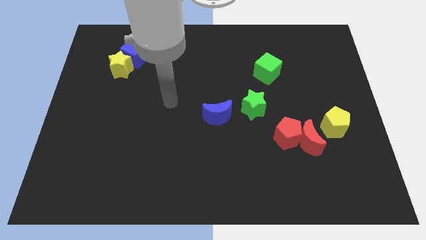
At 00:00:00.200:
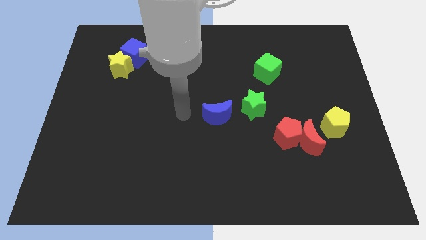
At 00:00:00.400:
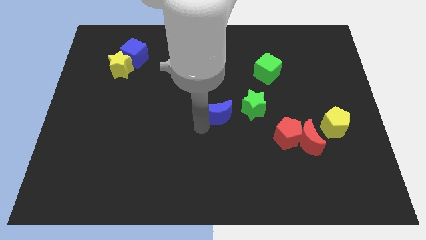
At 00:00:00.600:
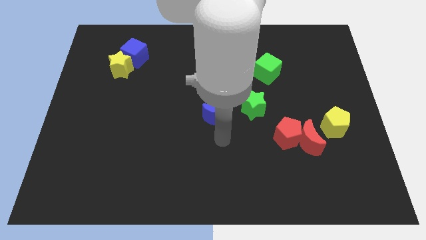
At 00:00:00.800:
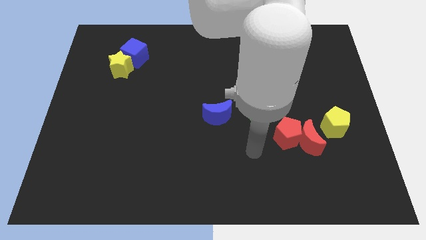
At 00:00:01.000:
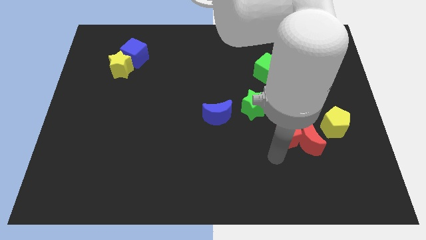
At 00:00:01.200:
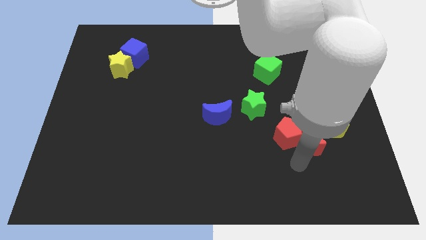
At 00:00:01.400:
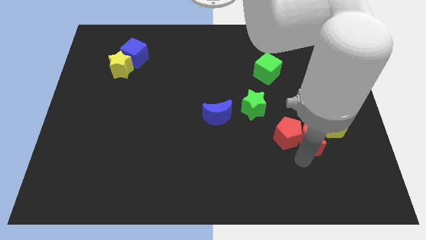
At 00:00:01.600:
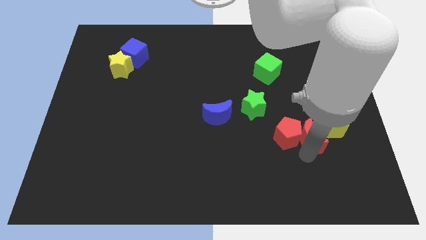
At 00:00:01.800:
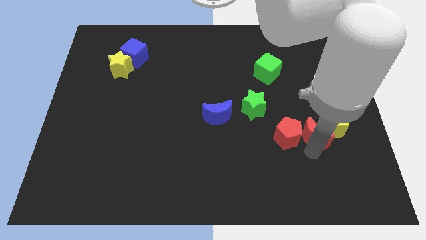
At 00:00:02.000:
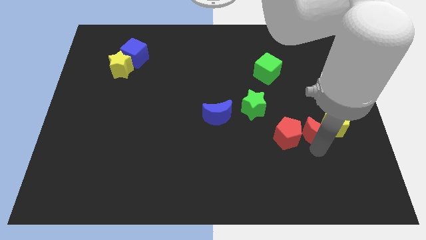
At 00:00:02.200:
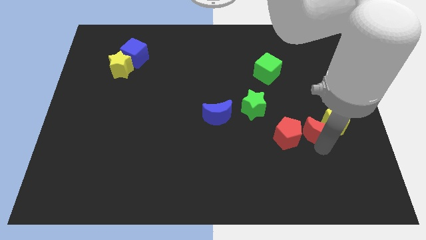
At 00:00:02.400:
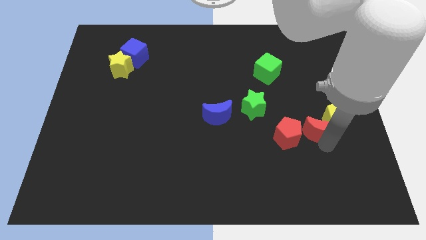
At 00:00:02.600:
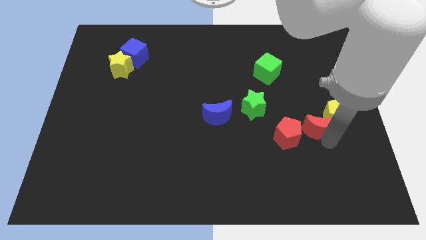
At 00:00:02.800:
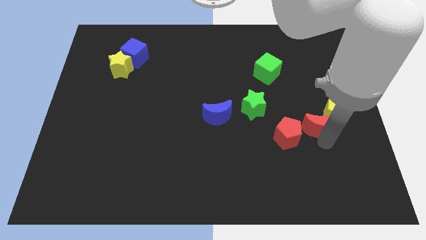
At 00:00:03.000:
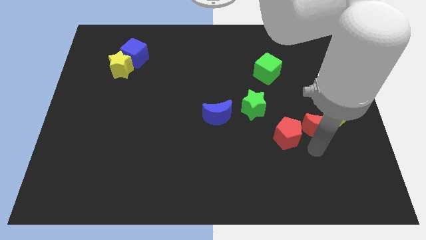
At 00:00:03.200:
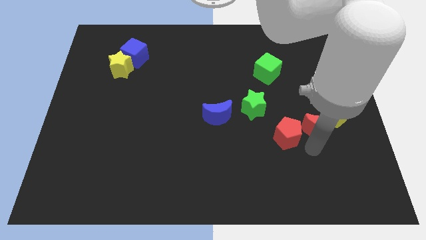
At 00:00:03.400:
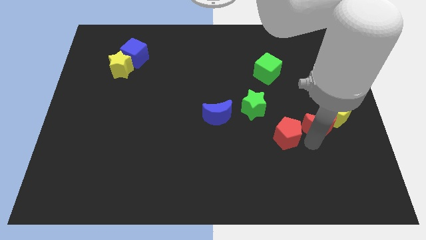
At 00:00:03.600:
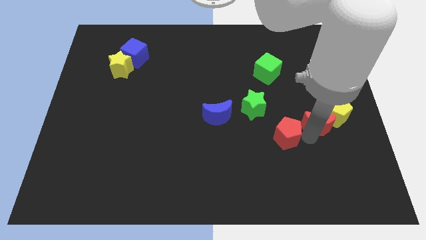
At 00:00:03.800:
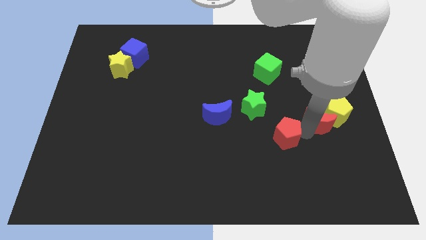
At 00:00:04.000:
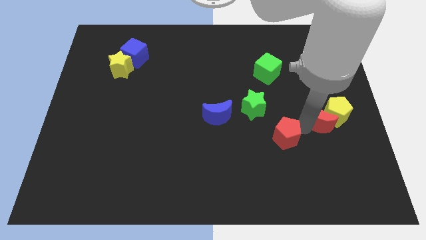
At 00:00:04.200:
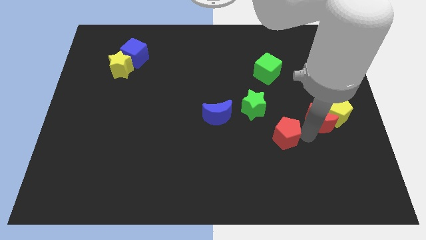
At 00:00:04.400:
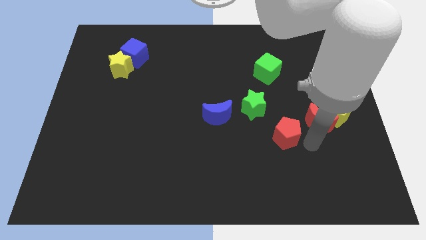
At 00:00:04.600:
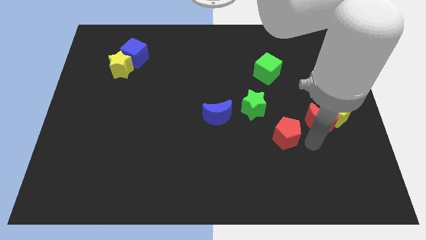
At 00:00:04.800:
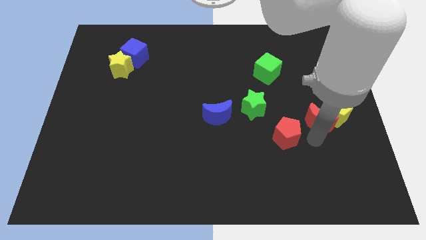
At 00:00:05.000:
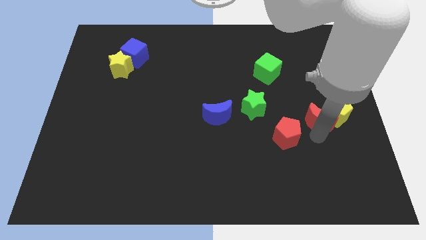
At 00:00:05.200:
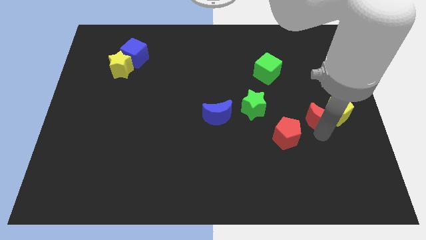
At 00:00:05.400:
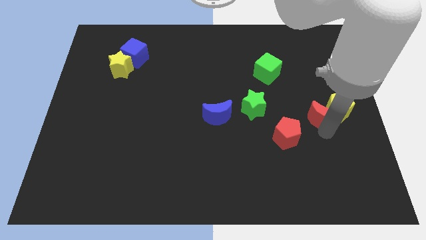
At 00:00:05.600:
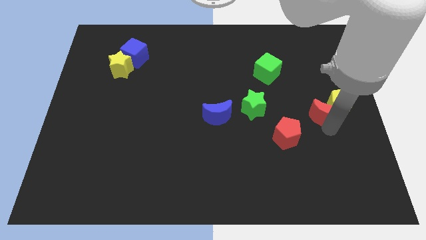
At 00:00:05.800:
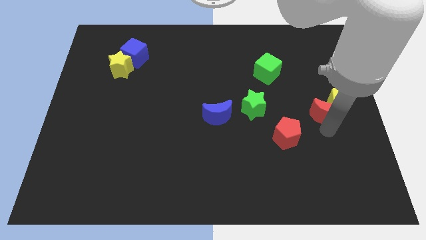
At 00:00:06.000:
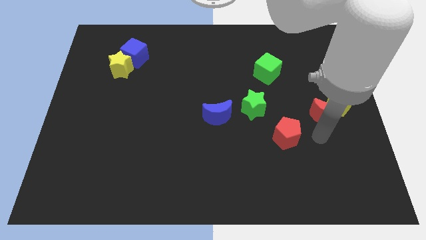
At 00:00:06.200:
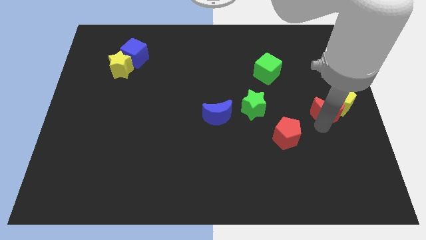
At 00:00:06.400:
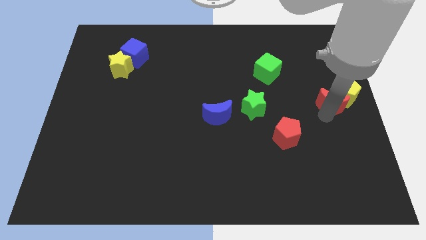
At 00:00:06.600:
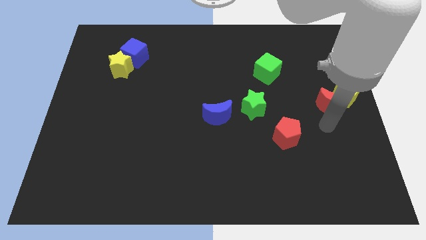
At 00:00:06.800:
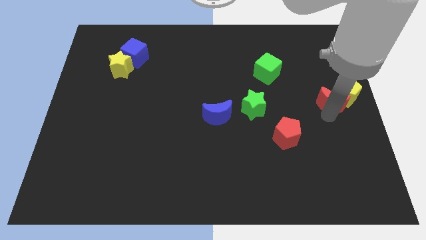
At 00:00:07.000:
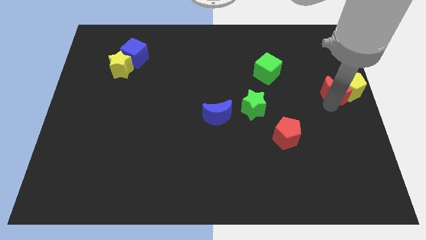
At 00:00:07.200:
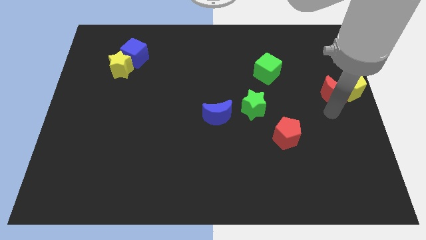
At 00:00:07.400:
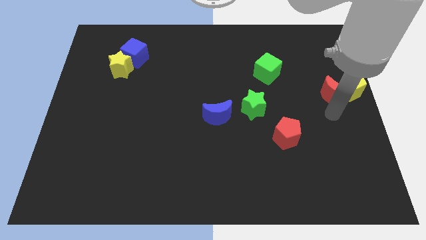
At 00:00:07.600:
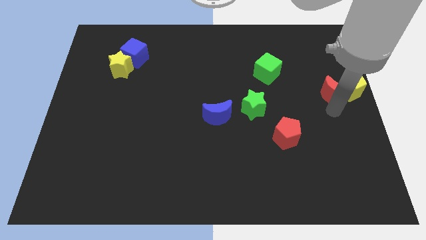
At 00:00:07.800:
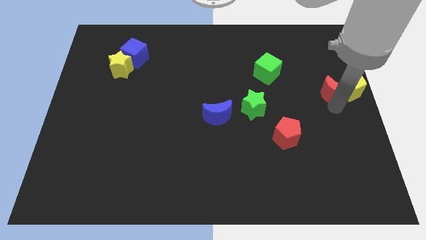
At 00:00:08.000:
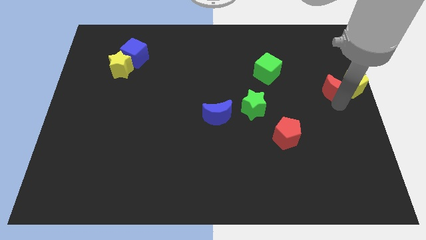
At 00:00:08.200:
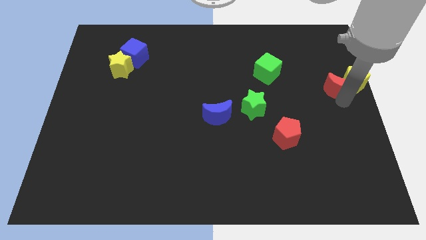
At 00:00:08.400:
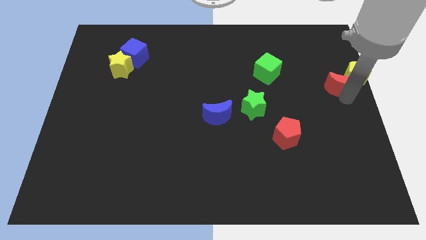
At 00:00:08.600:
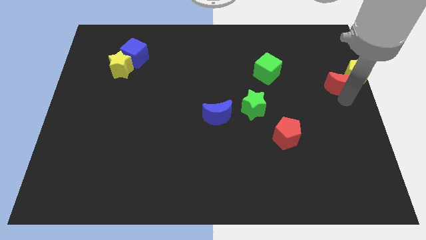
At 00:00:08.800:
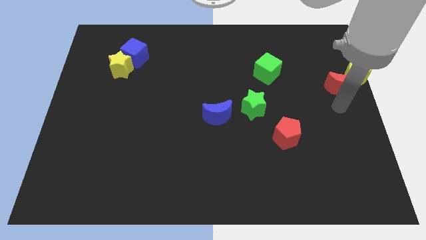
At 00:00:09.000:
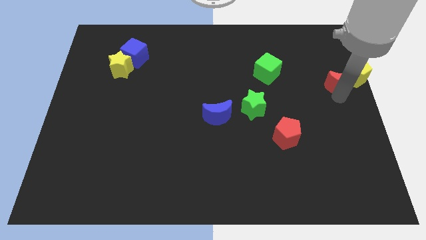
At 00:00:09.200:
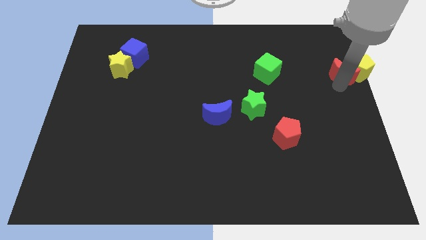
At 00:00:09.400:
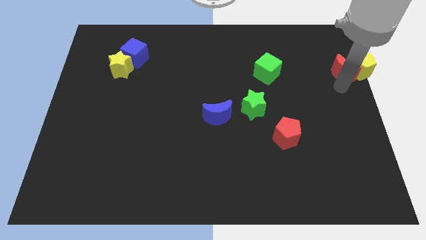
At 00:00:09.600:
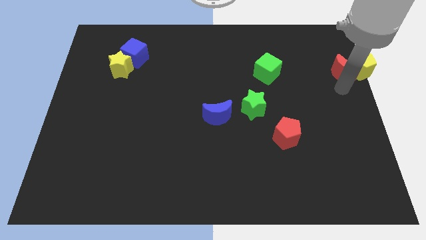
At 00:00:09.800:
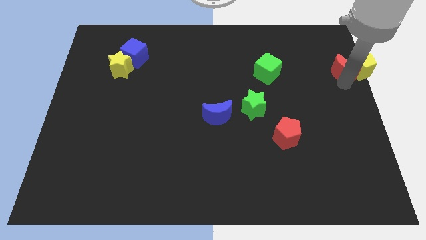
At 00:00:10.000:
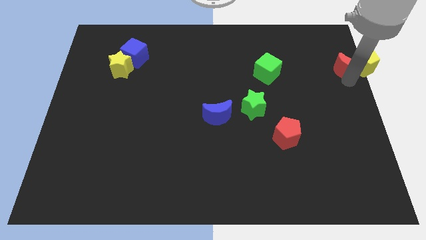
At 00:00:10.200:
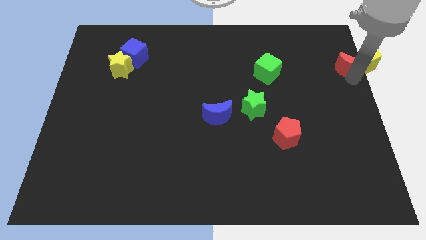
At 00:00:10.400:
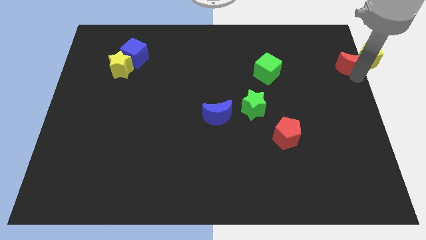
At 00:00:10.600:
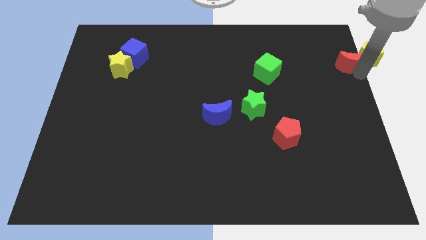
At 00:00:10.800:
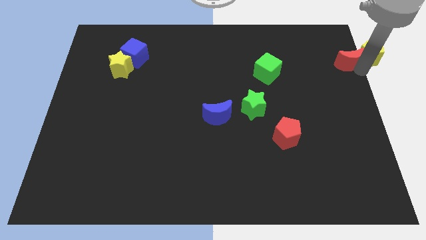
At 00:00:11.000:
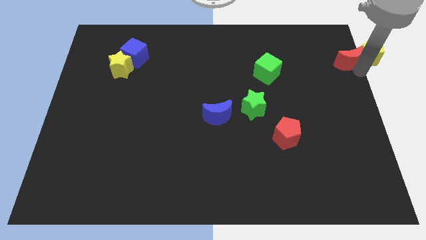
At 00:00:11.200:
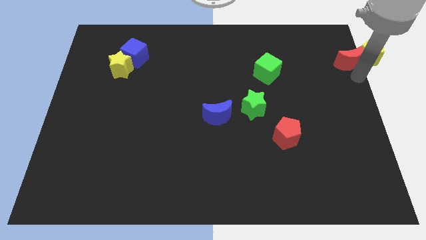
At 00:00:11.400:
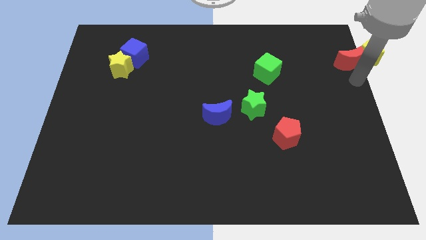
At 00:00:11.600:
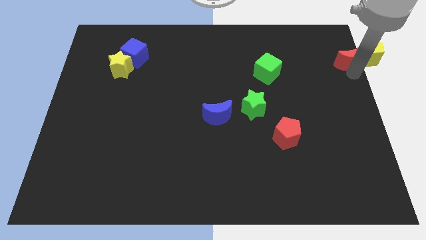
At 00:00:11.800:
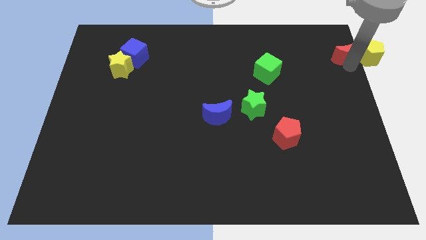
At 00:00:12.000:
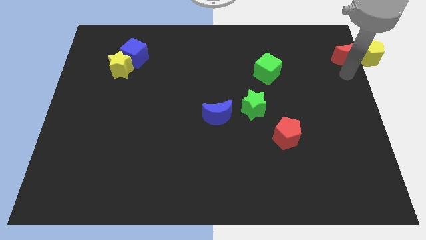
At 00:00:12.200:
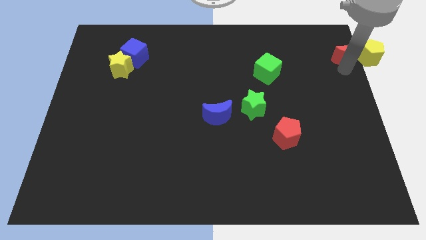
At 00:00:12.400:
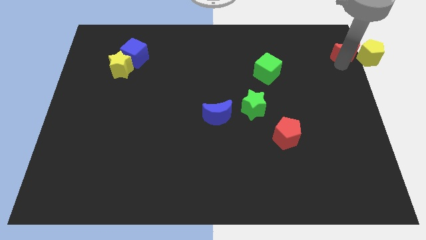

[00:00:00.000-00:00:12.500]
push the red moon to the upper right corner

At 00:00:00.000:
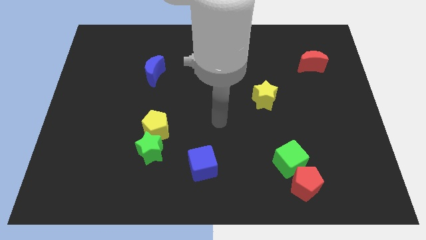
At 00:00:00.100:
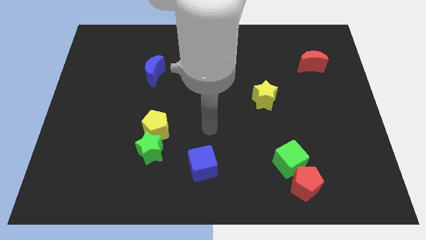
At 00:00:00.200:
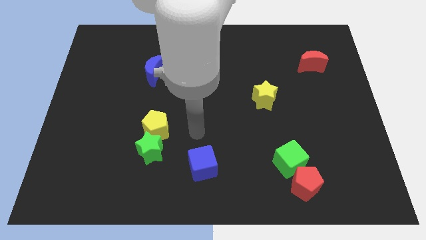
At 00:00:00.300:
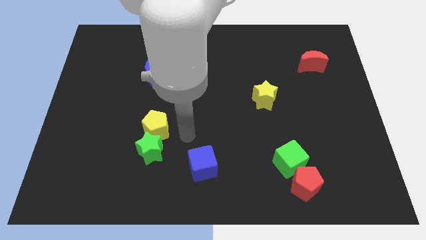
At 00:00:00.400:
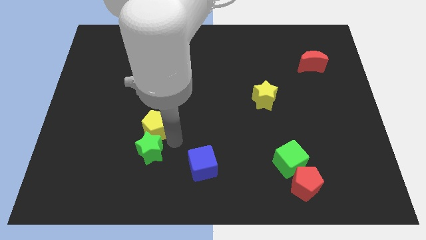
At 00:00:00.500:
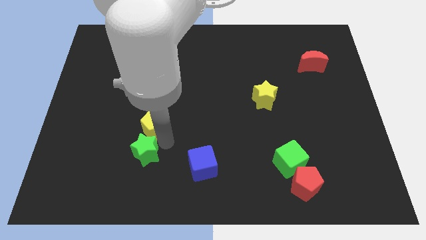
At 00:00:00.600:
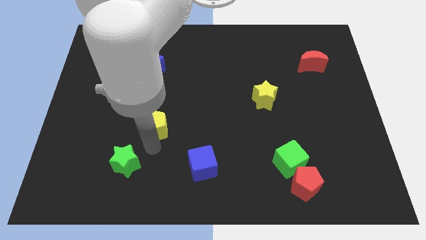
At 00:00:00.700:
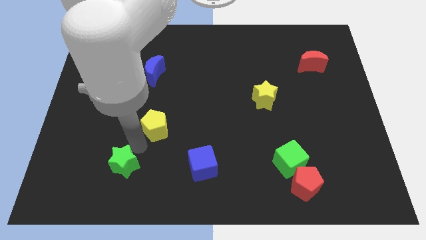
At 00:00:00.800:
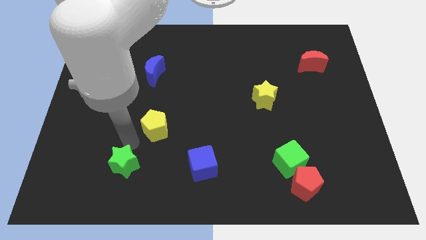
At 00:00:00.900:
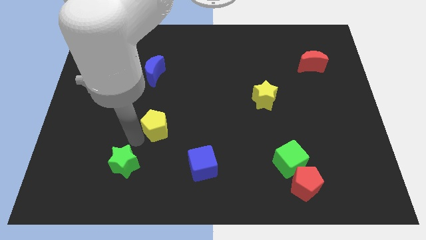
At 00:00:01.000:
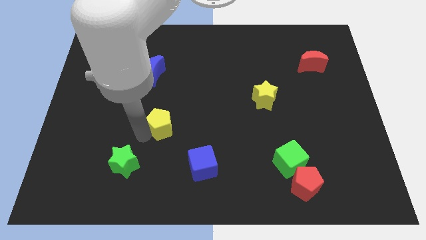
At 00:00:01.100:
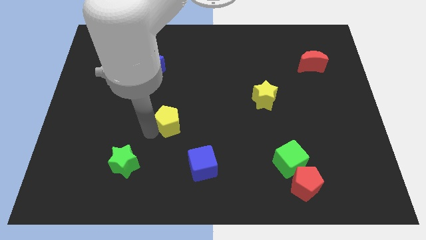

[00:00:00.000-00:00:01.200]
slide the yellow pentagon to the middle of the board
